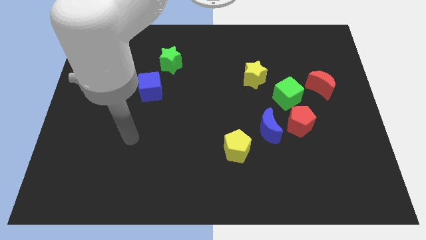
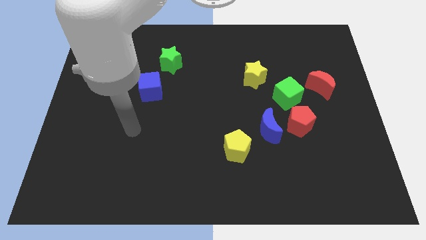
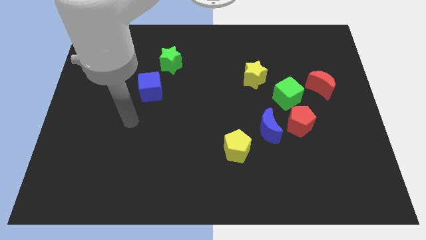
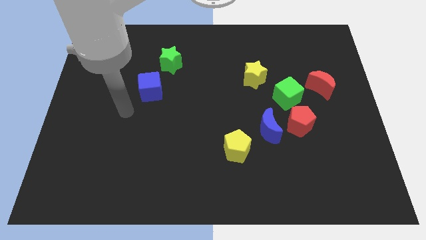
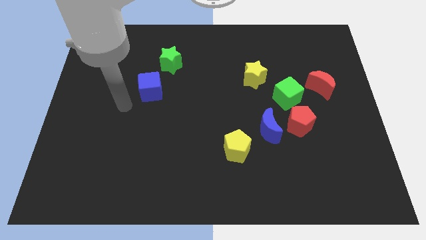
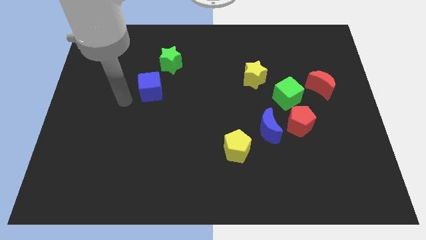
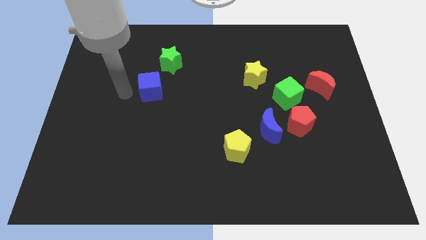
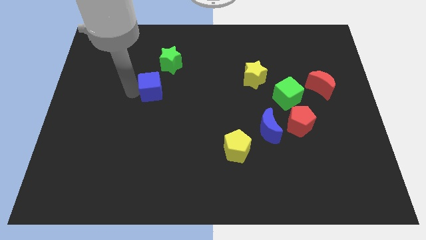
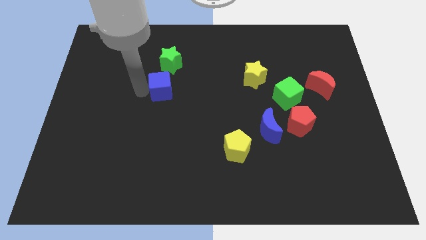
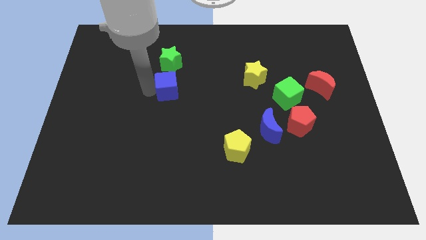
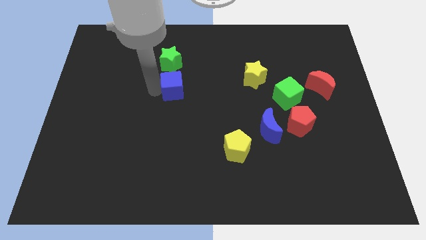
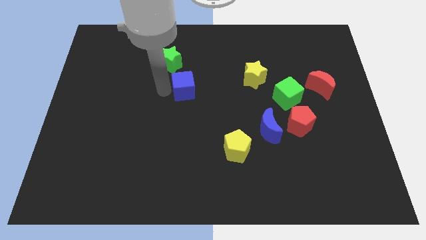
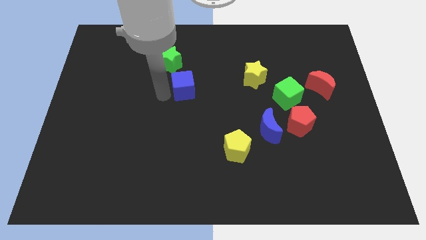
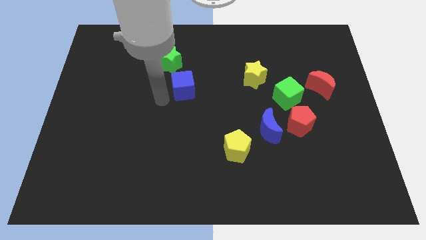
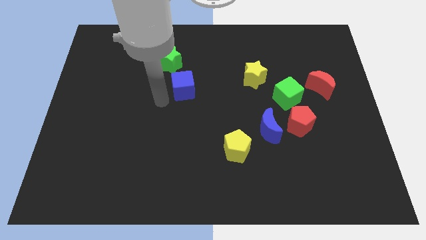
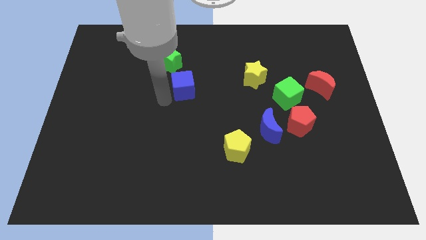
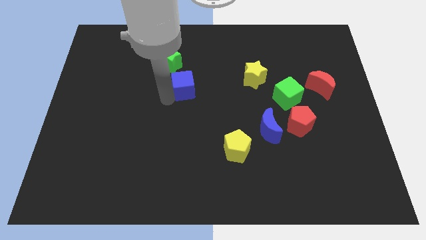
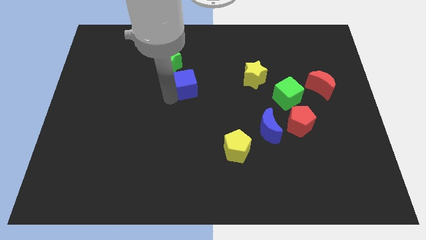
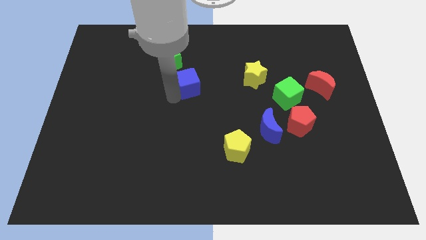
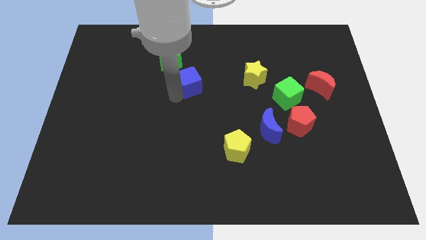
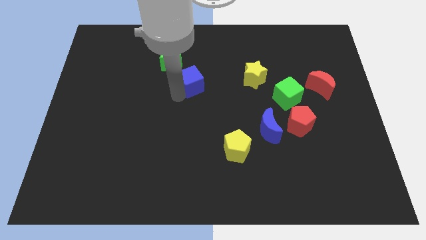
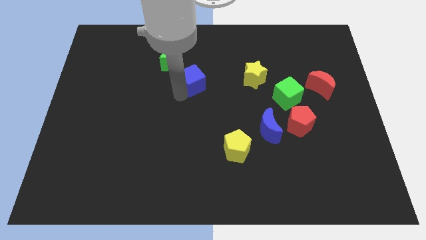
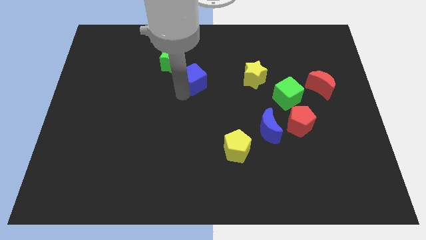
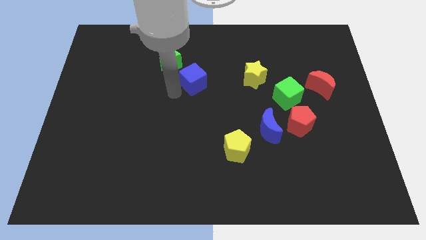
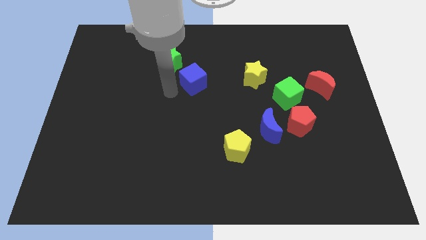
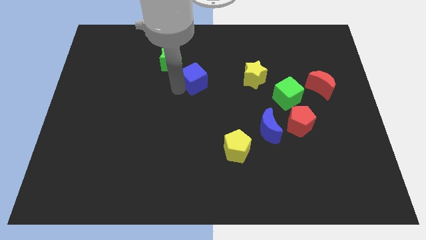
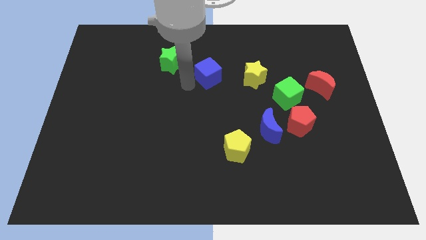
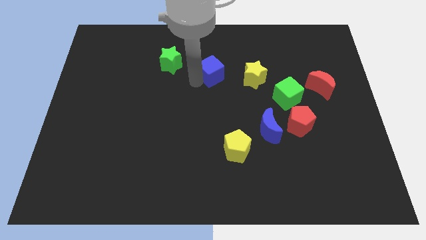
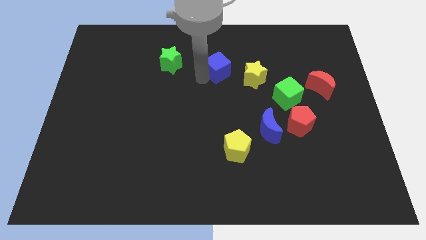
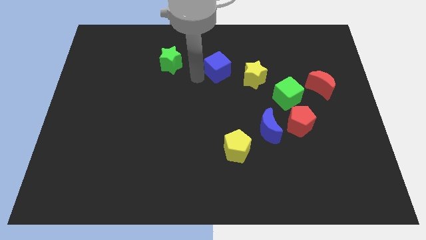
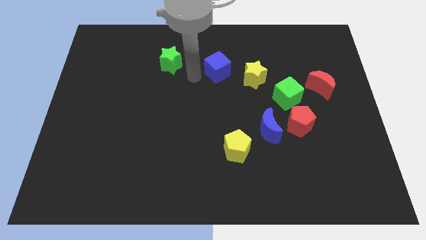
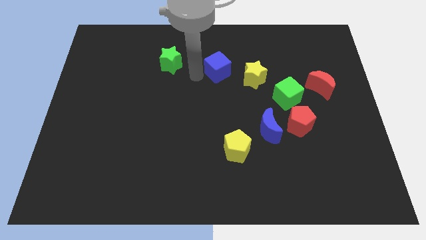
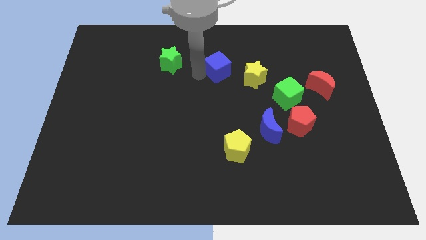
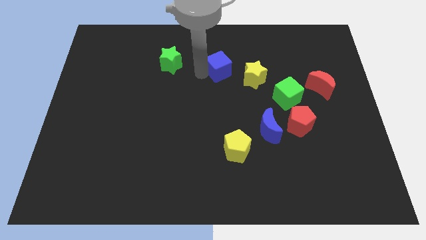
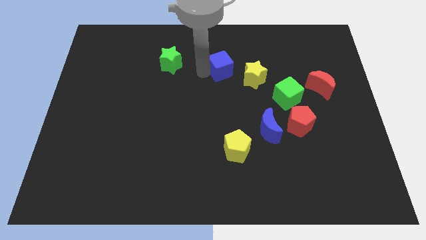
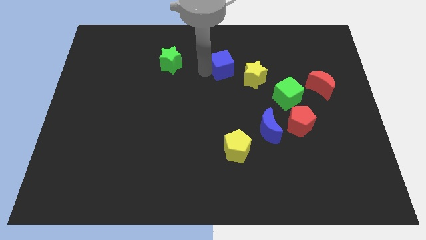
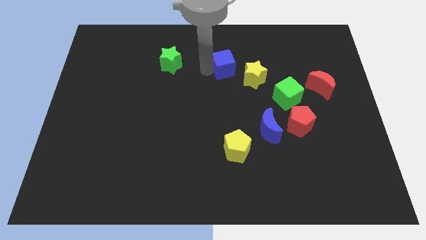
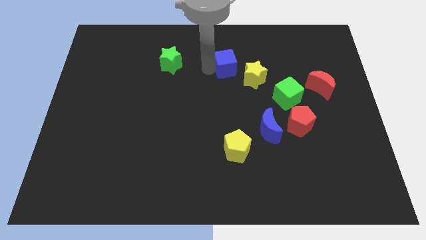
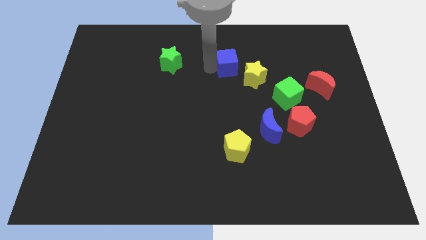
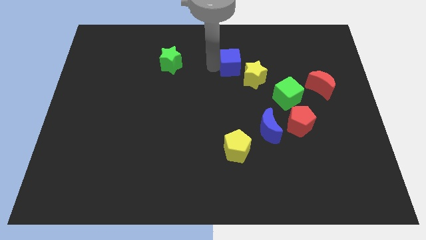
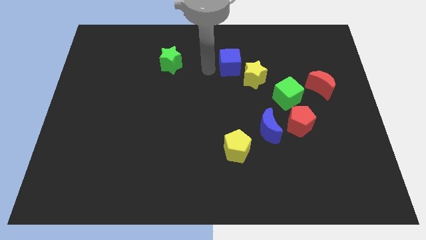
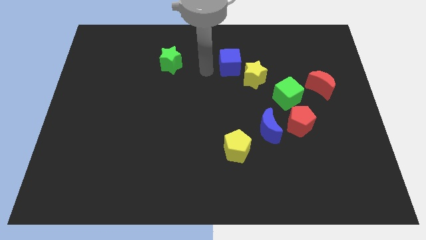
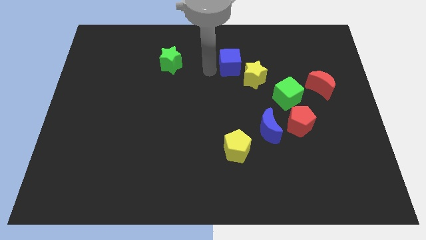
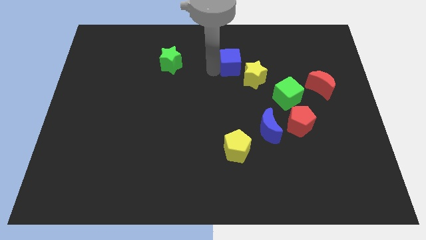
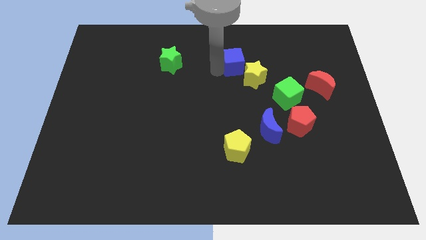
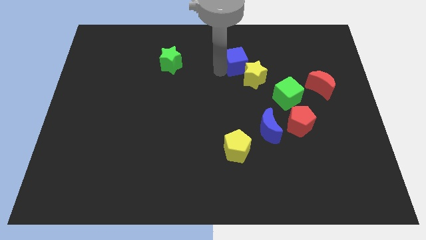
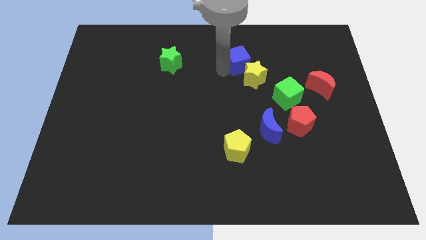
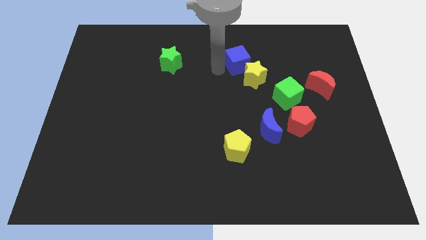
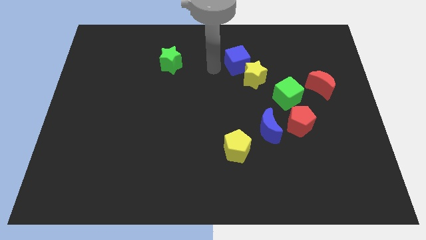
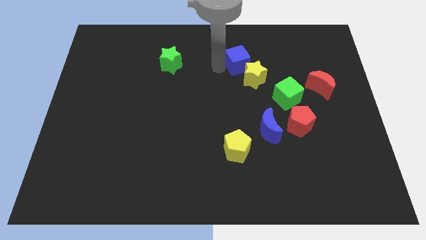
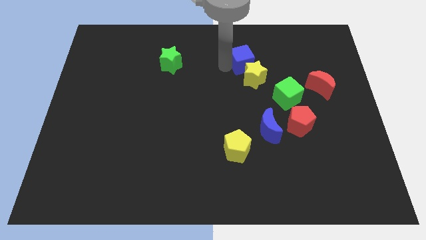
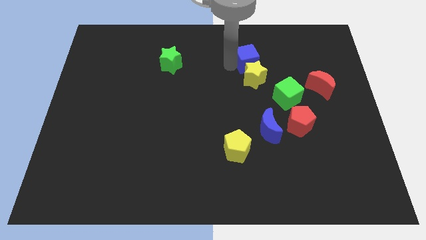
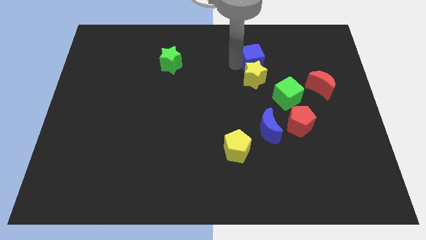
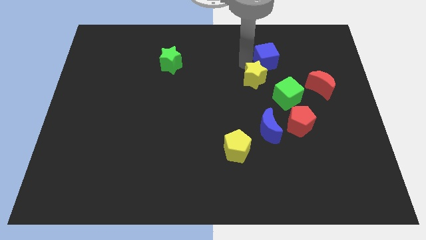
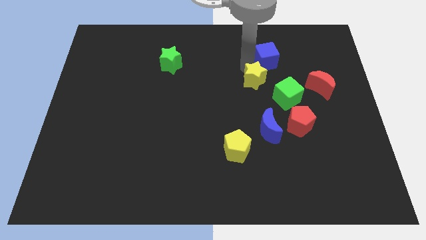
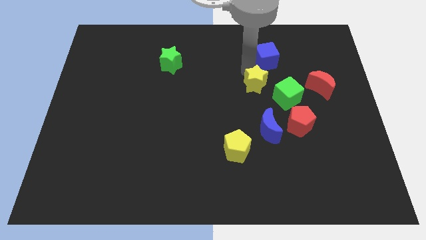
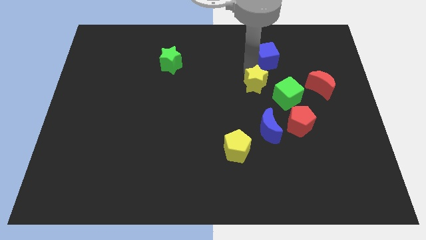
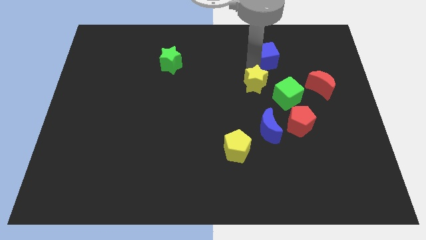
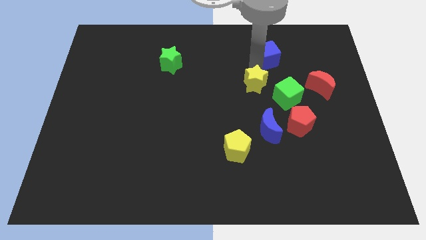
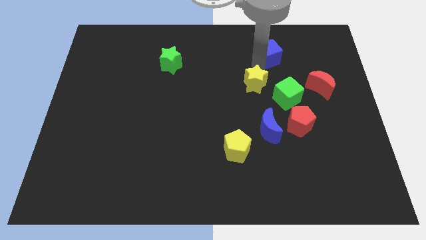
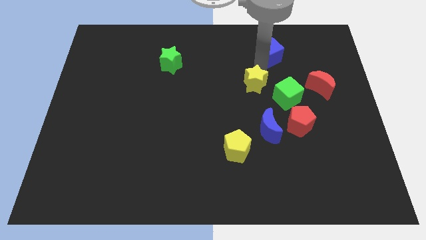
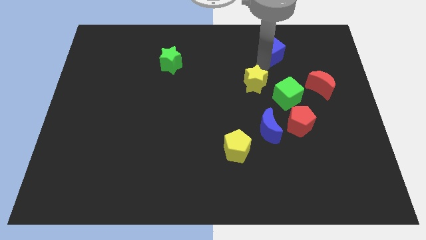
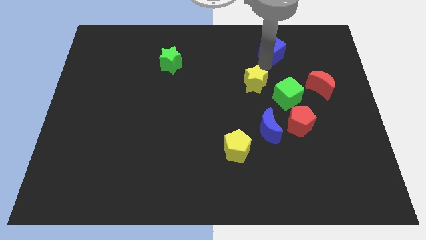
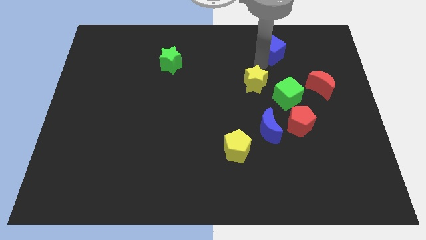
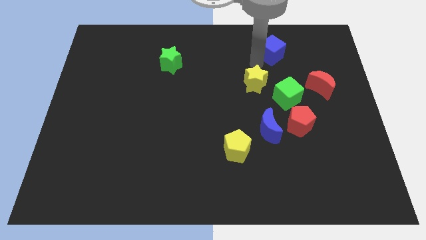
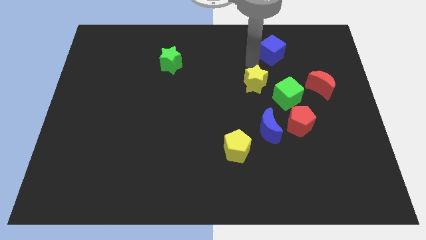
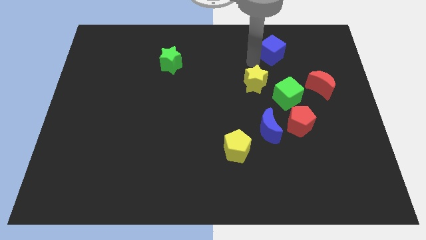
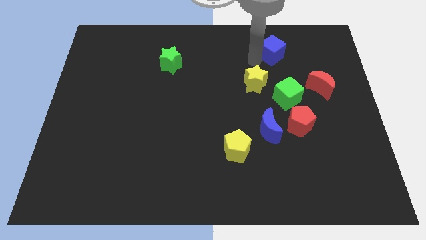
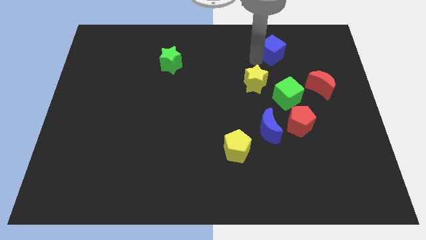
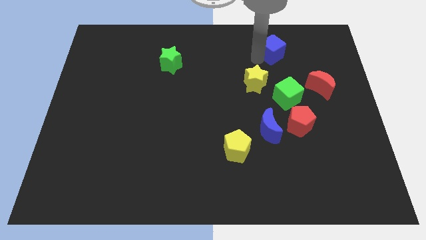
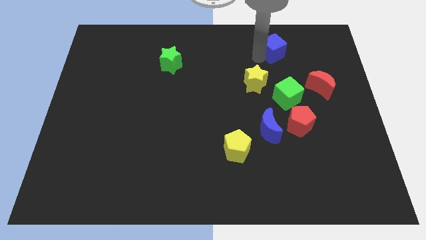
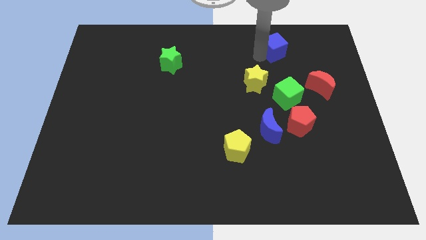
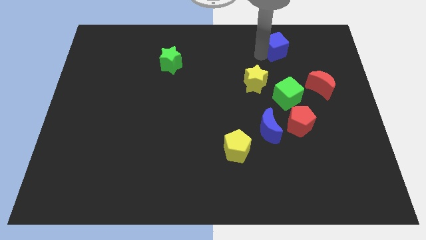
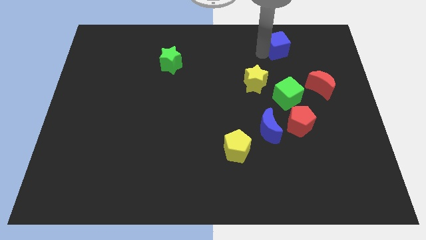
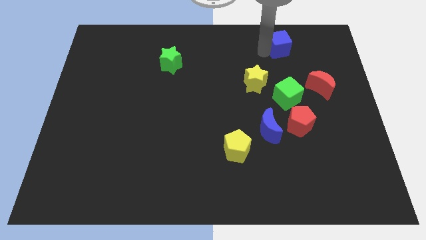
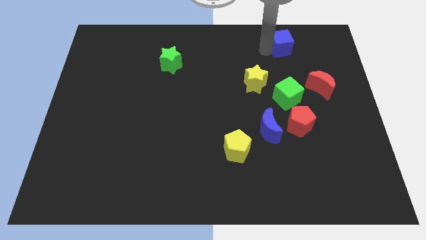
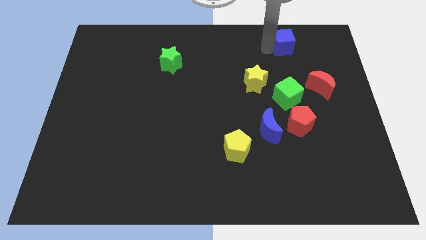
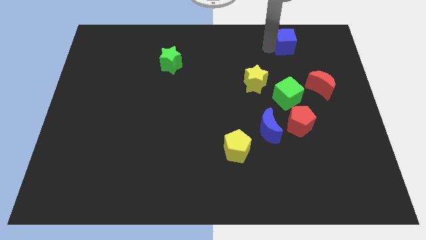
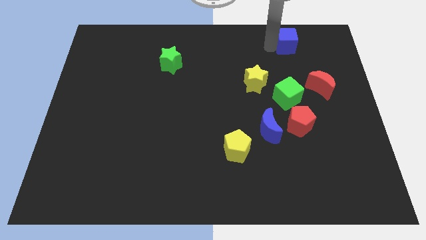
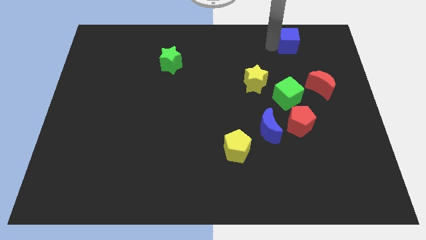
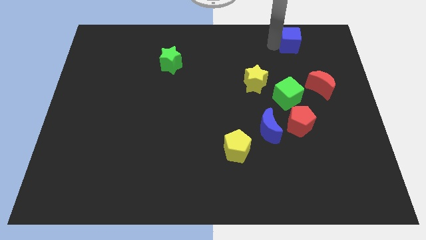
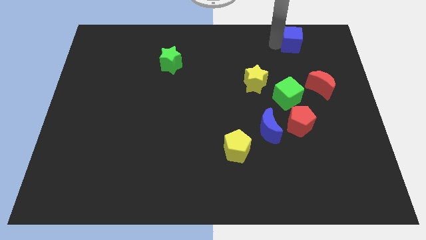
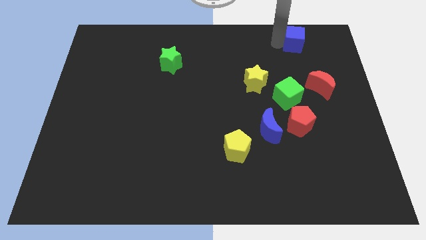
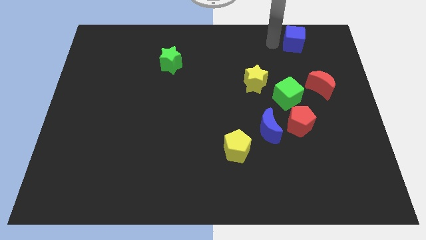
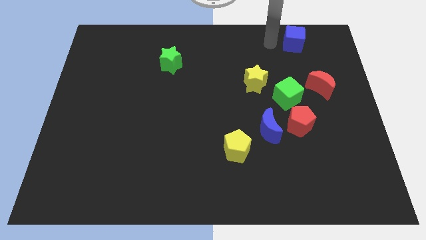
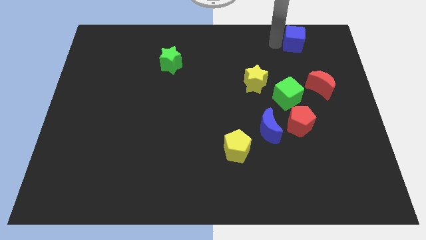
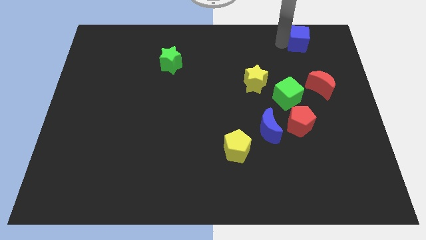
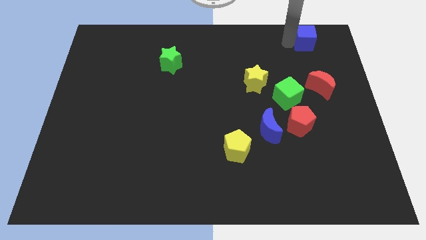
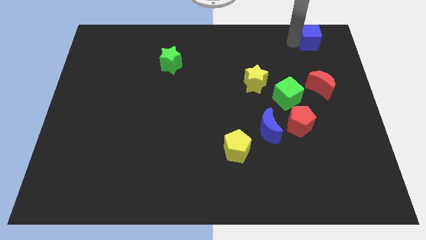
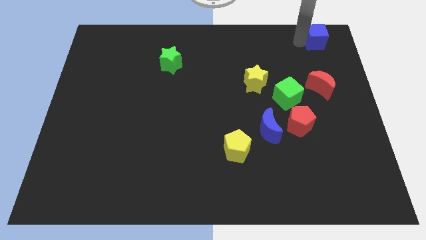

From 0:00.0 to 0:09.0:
put the blue cube to the top right corner
